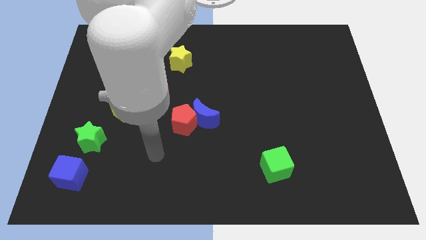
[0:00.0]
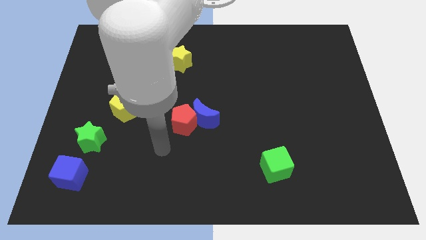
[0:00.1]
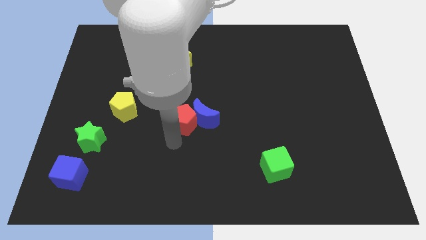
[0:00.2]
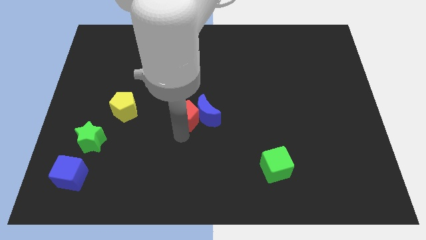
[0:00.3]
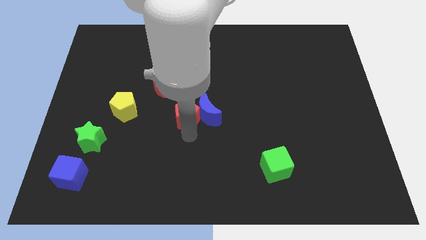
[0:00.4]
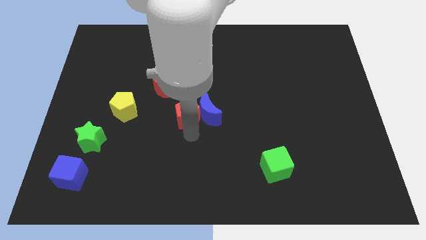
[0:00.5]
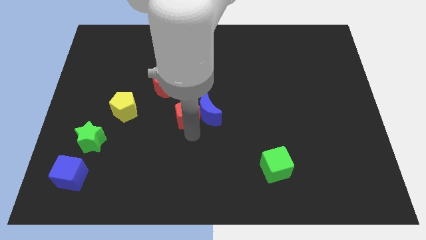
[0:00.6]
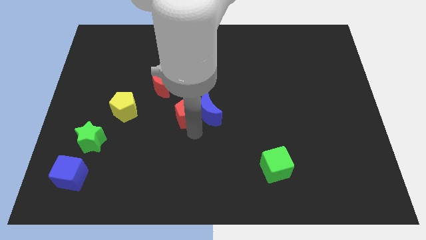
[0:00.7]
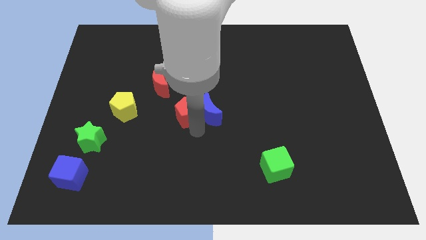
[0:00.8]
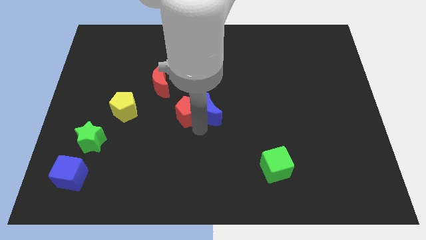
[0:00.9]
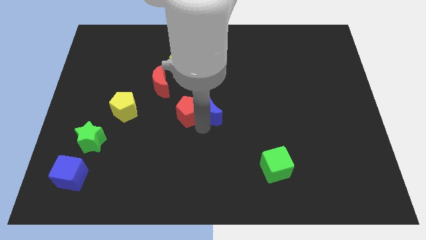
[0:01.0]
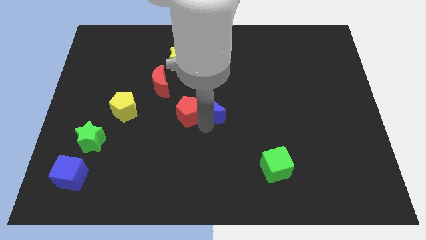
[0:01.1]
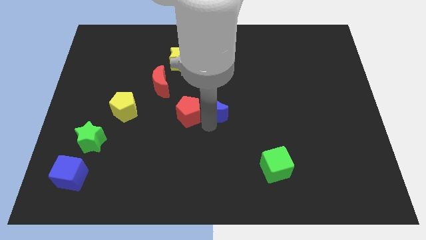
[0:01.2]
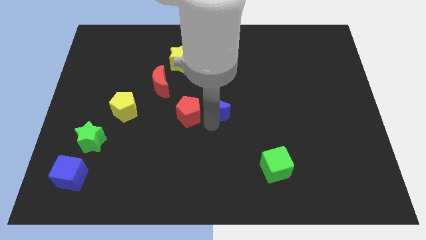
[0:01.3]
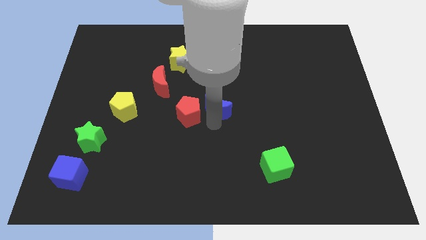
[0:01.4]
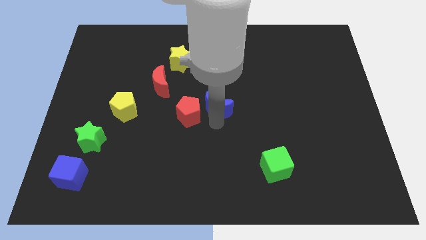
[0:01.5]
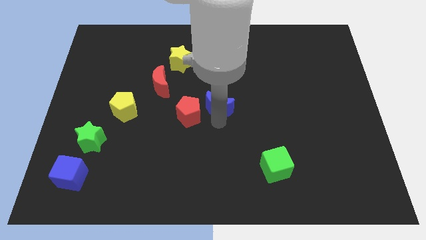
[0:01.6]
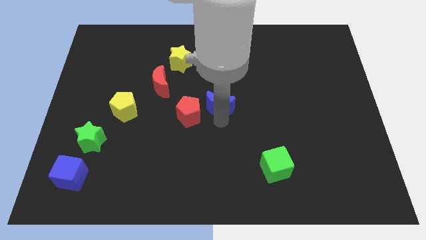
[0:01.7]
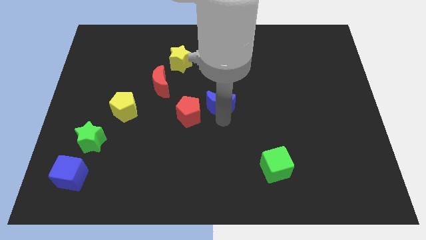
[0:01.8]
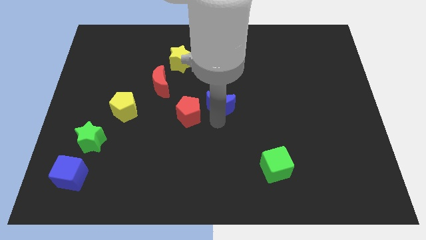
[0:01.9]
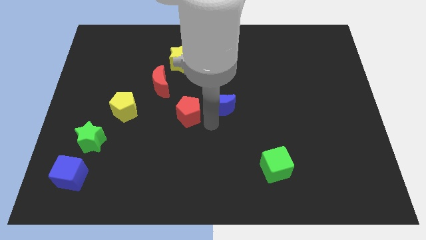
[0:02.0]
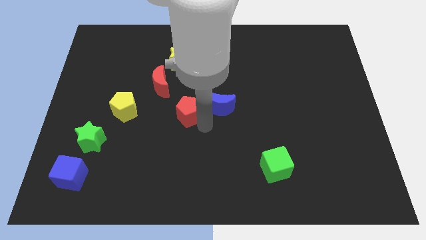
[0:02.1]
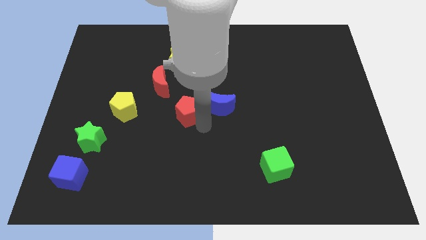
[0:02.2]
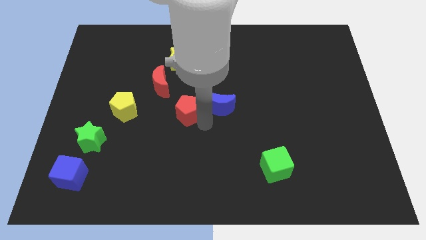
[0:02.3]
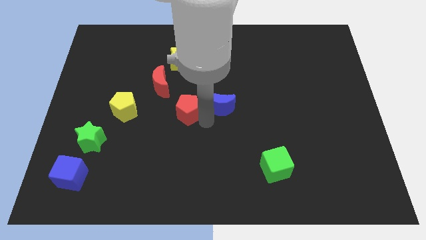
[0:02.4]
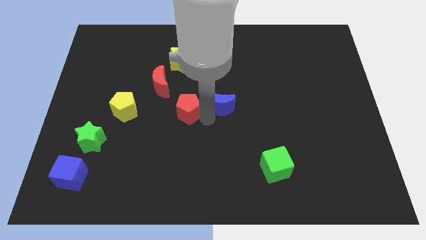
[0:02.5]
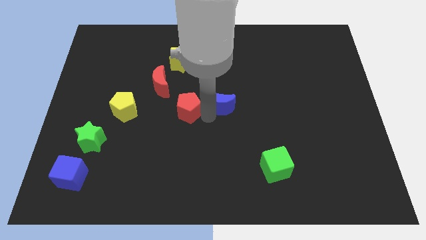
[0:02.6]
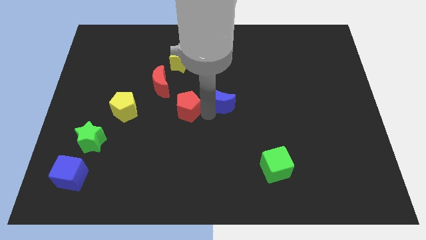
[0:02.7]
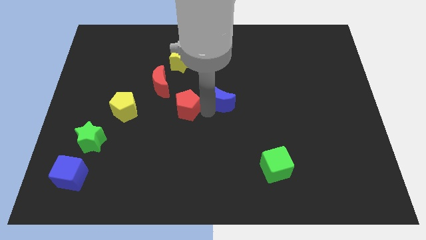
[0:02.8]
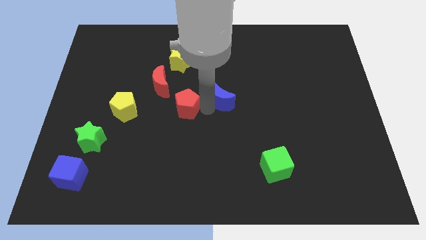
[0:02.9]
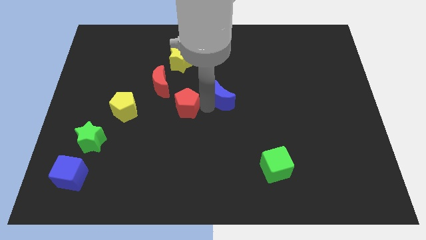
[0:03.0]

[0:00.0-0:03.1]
slide the blue moon somewhat diagonally upwards and right

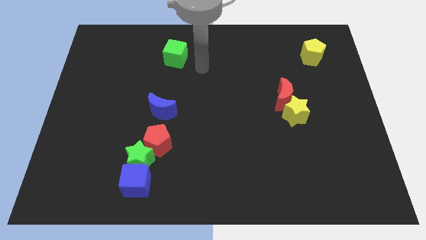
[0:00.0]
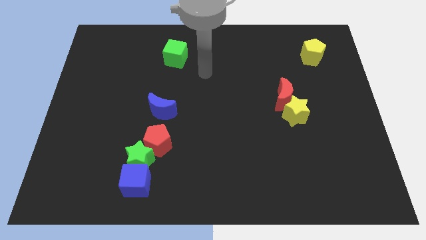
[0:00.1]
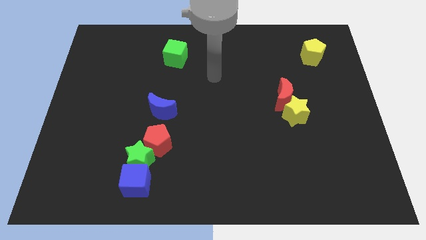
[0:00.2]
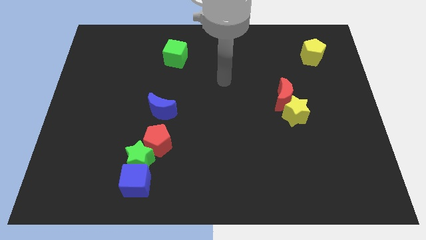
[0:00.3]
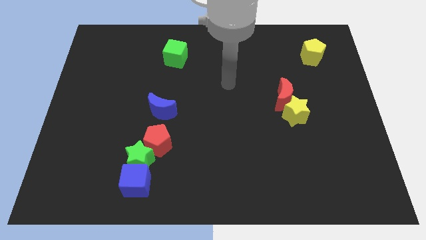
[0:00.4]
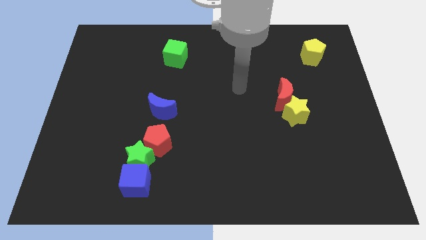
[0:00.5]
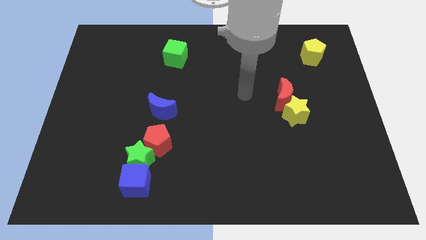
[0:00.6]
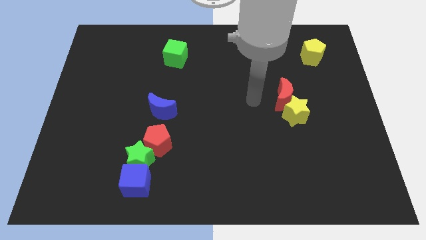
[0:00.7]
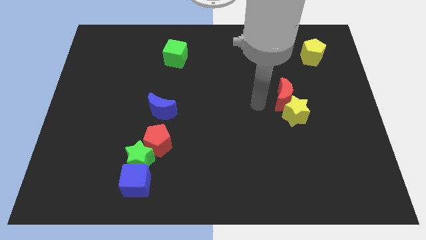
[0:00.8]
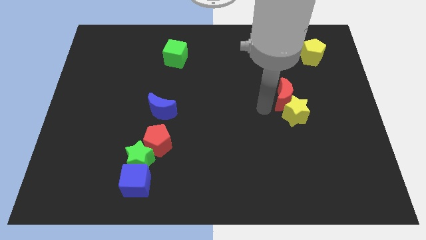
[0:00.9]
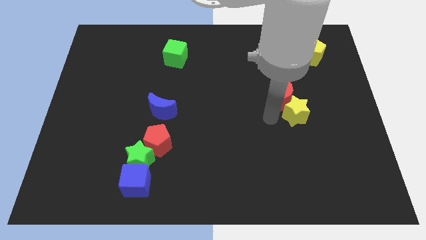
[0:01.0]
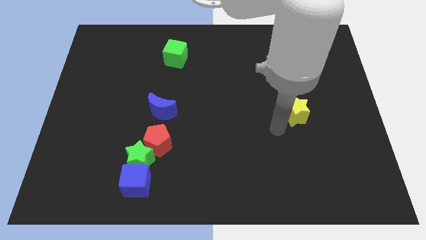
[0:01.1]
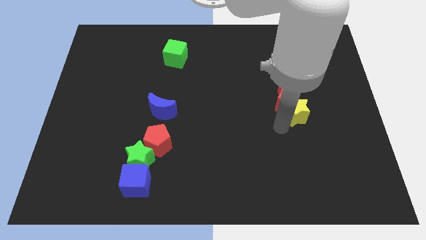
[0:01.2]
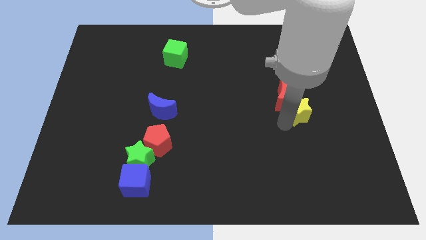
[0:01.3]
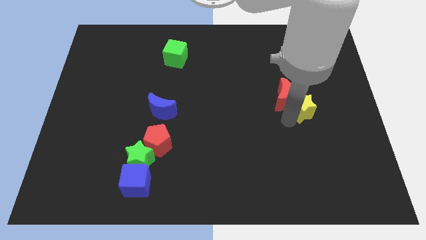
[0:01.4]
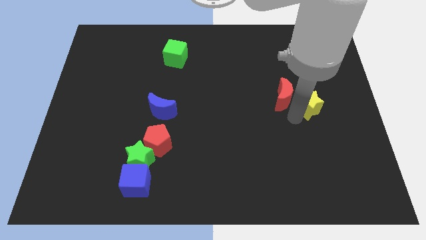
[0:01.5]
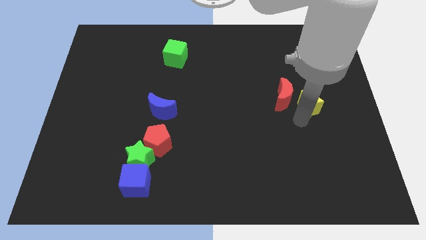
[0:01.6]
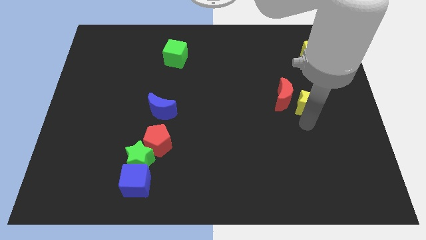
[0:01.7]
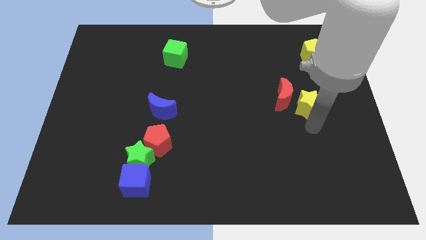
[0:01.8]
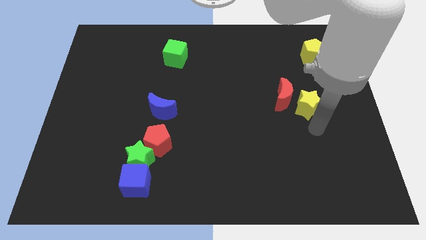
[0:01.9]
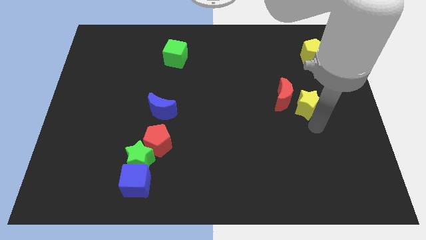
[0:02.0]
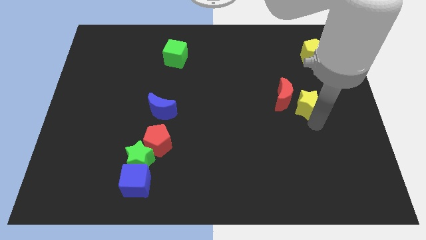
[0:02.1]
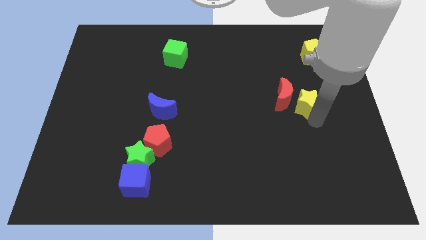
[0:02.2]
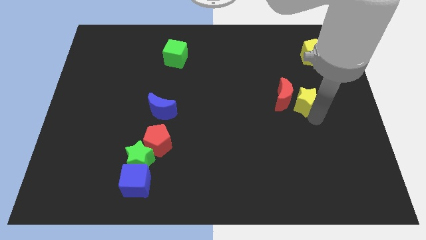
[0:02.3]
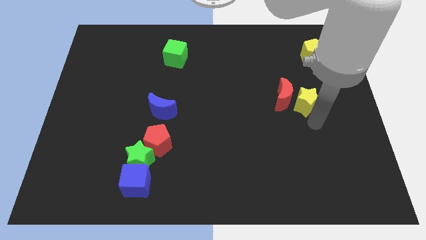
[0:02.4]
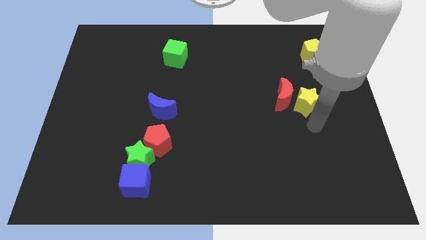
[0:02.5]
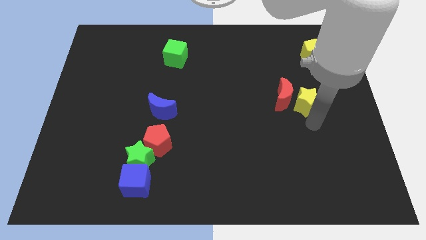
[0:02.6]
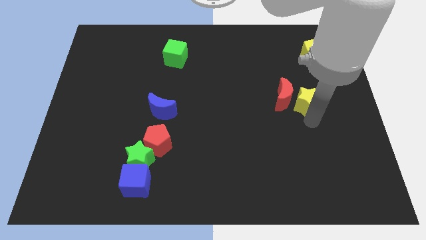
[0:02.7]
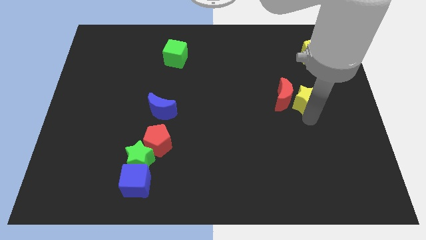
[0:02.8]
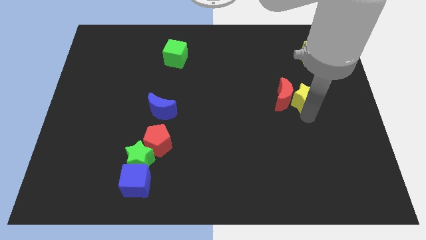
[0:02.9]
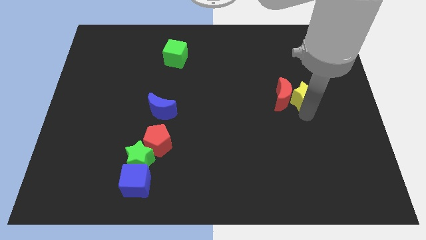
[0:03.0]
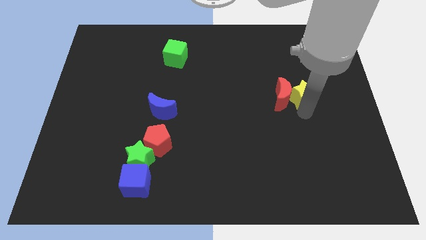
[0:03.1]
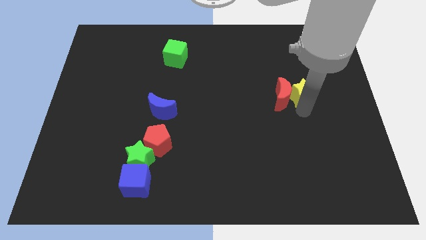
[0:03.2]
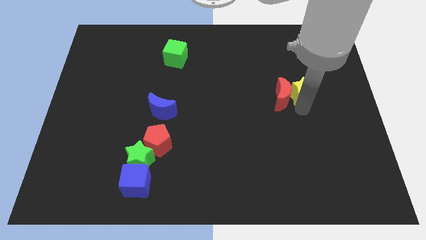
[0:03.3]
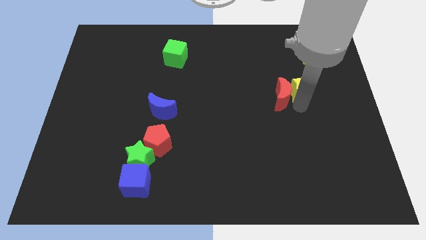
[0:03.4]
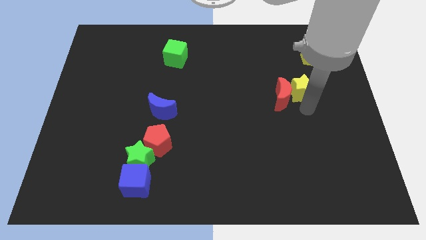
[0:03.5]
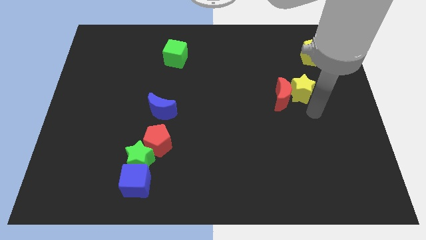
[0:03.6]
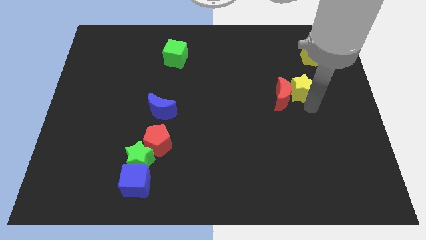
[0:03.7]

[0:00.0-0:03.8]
move the yellow star somewhat up

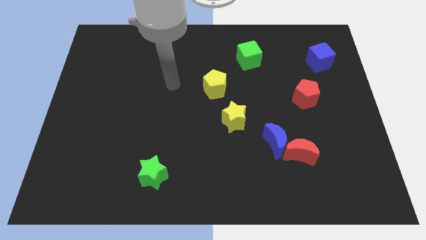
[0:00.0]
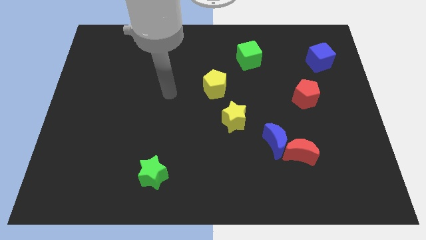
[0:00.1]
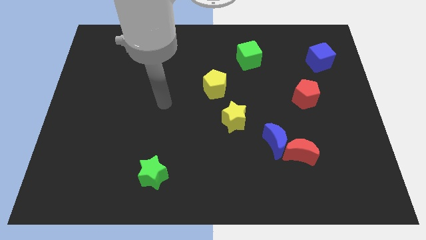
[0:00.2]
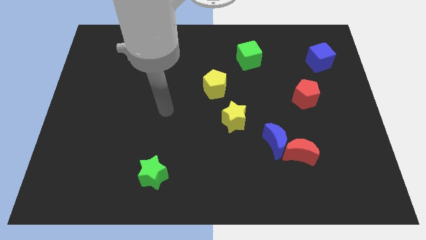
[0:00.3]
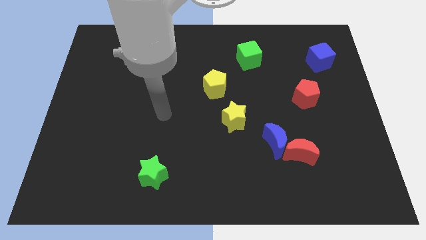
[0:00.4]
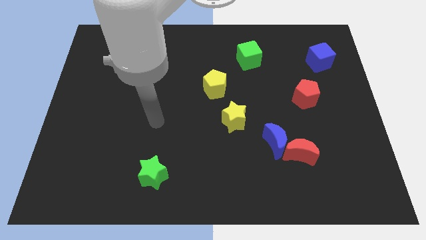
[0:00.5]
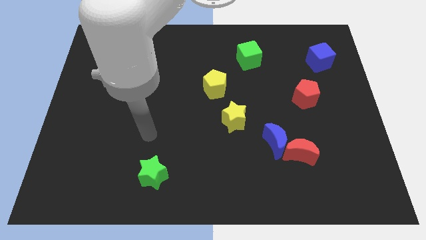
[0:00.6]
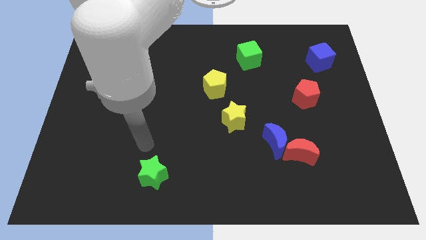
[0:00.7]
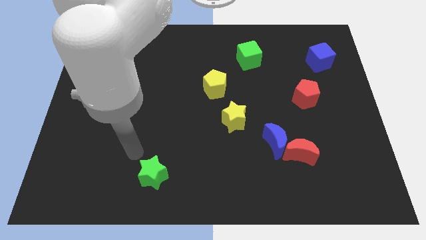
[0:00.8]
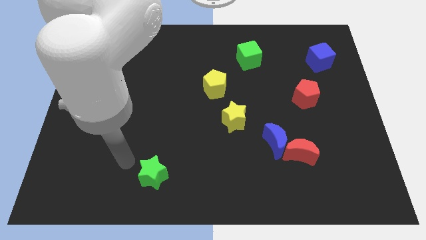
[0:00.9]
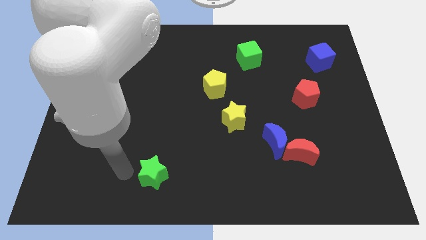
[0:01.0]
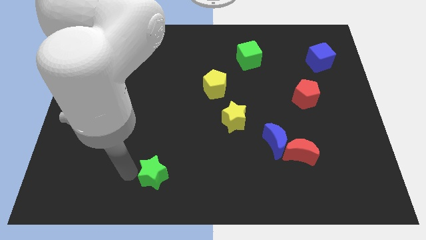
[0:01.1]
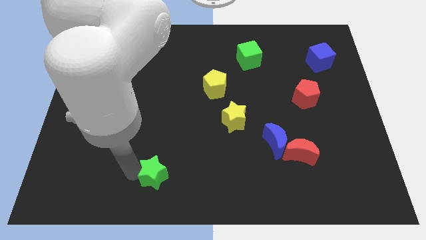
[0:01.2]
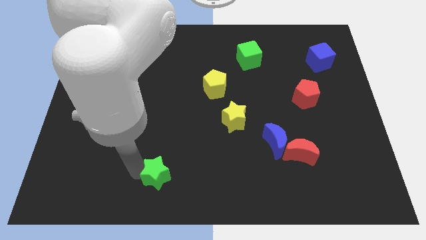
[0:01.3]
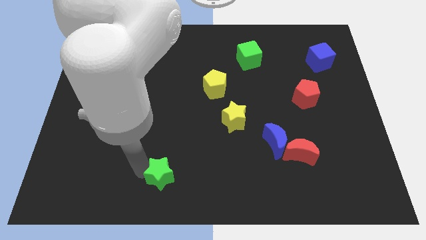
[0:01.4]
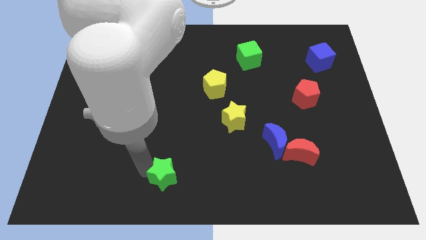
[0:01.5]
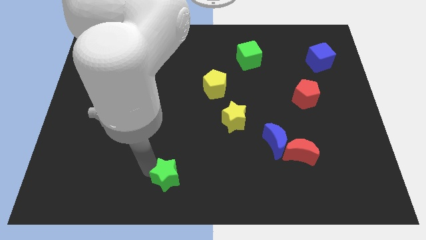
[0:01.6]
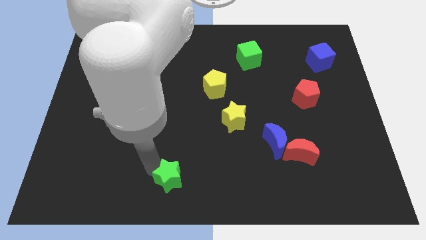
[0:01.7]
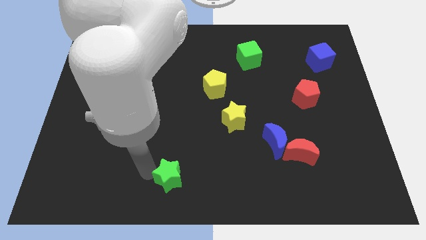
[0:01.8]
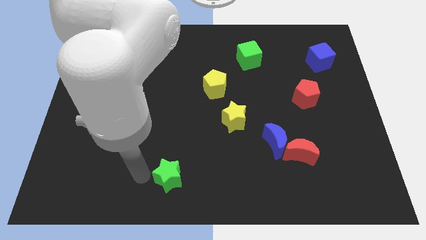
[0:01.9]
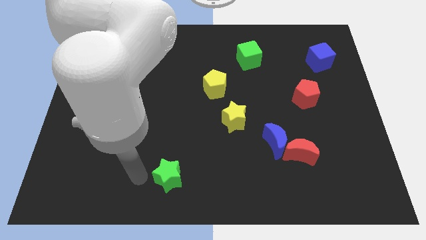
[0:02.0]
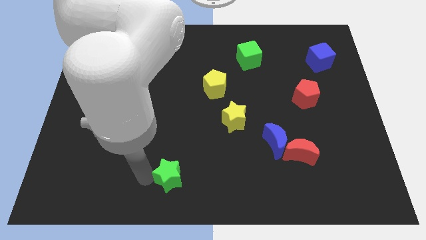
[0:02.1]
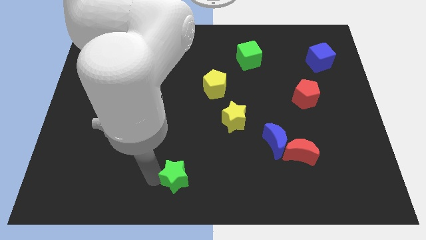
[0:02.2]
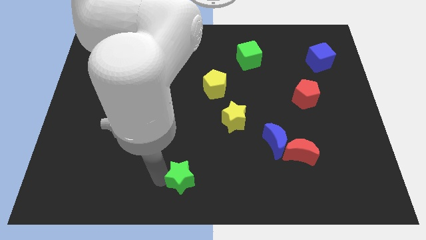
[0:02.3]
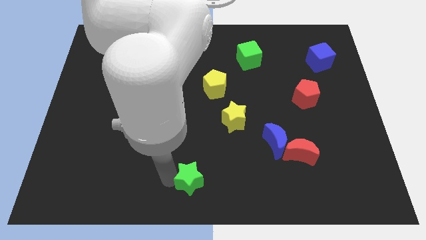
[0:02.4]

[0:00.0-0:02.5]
slightly slide the green star to the right
